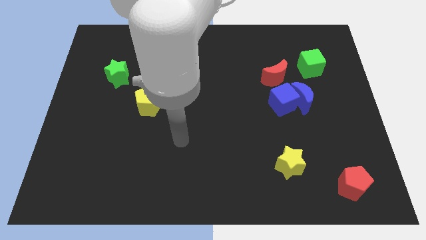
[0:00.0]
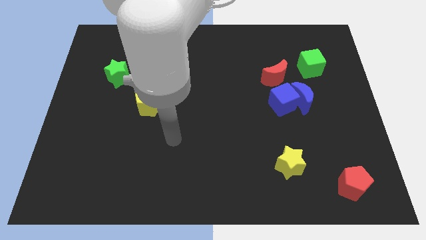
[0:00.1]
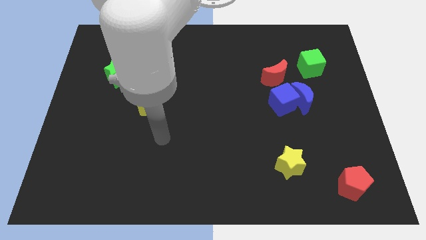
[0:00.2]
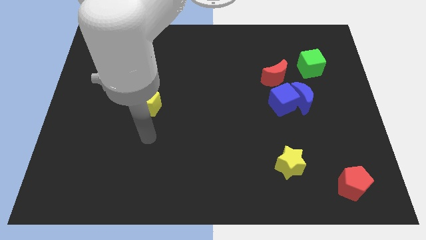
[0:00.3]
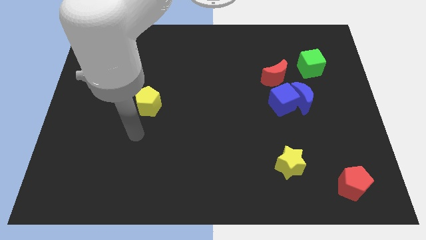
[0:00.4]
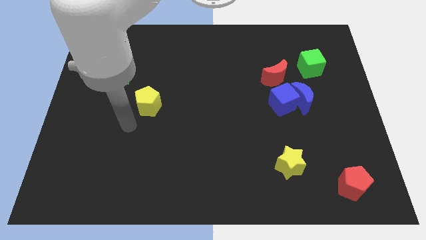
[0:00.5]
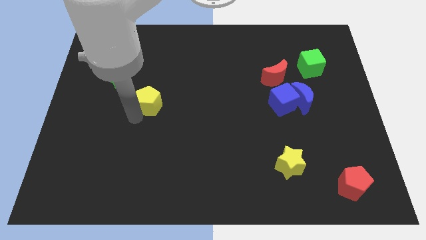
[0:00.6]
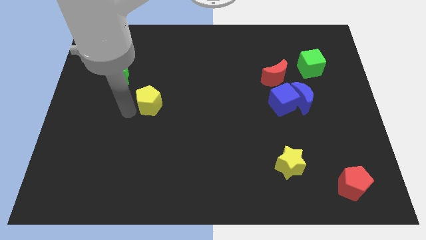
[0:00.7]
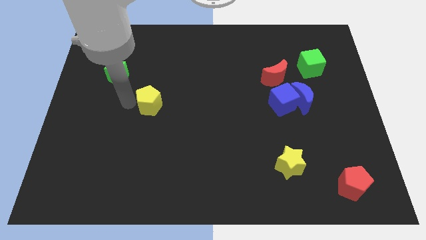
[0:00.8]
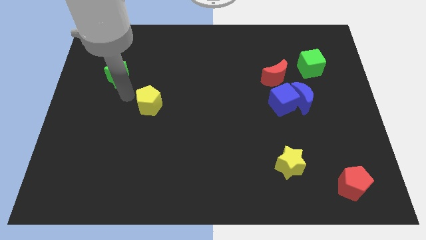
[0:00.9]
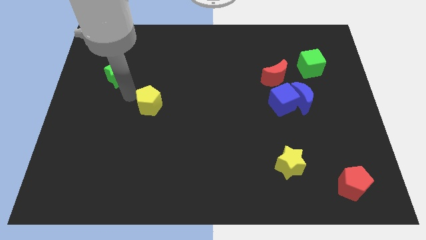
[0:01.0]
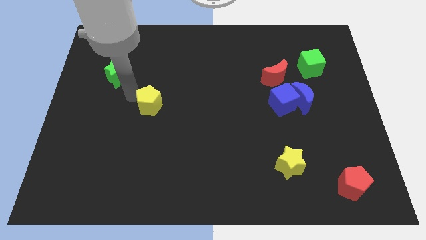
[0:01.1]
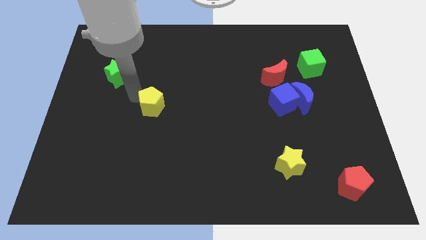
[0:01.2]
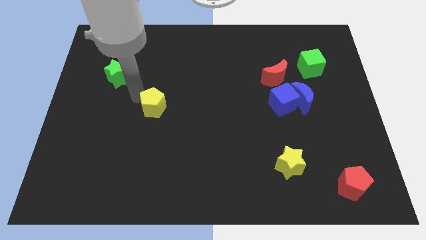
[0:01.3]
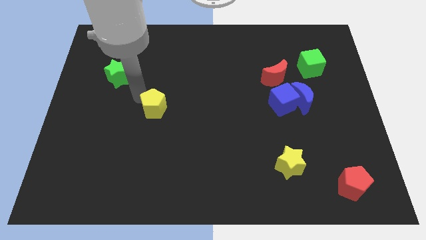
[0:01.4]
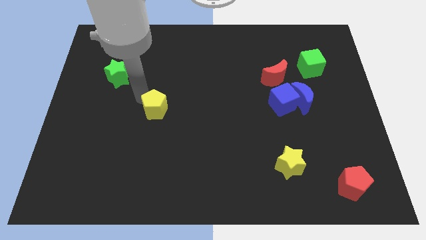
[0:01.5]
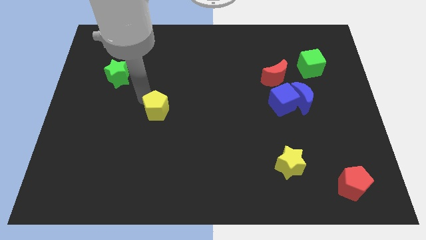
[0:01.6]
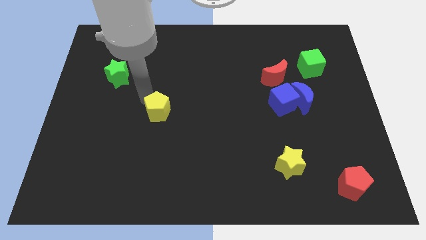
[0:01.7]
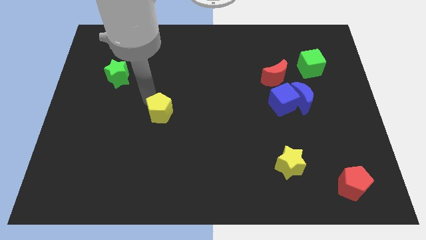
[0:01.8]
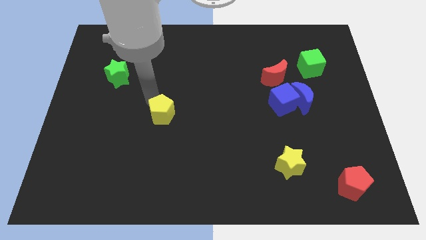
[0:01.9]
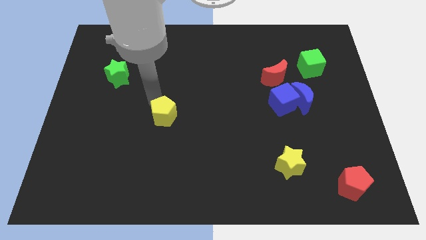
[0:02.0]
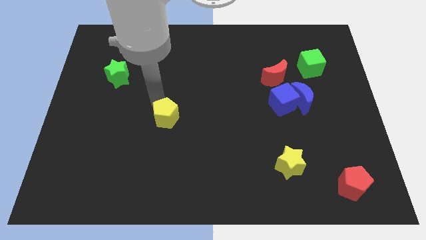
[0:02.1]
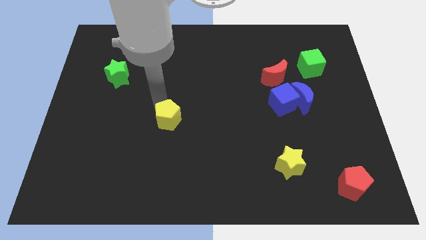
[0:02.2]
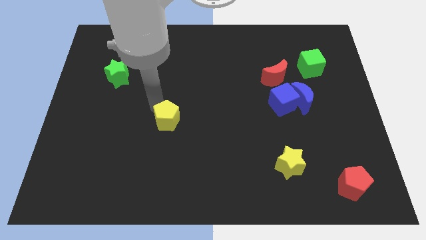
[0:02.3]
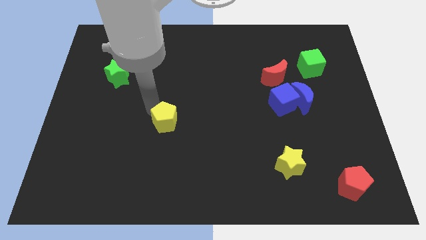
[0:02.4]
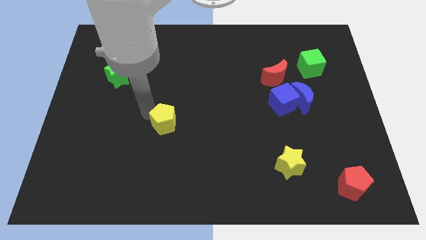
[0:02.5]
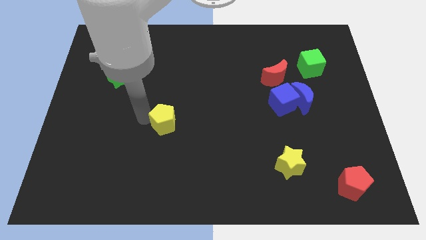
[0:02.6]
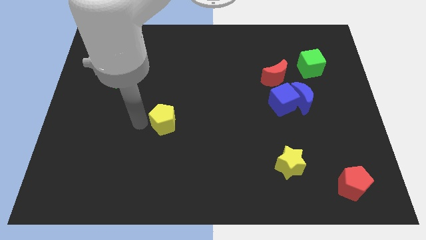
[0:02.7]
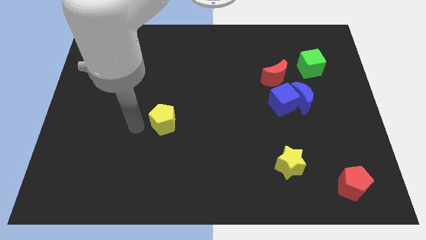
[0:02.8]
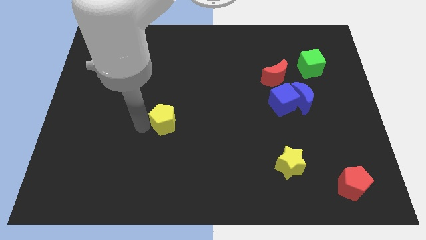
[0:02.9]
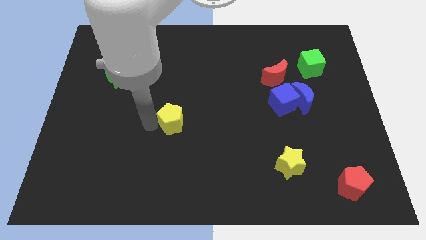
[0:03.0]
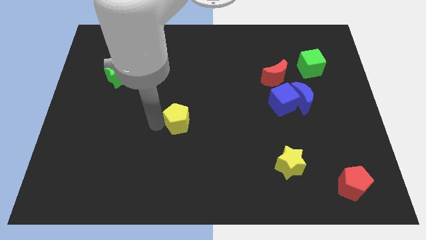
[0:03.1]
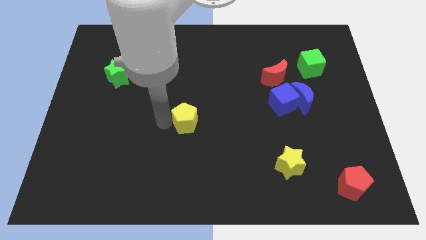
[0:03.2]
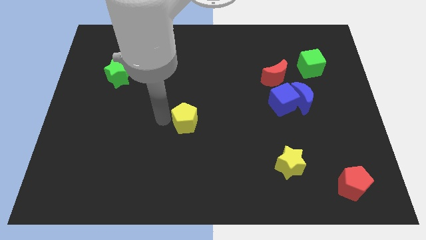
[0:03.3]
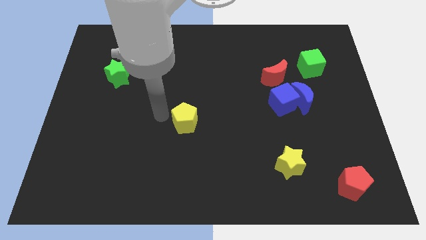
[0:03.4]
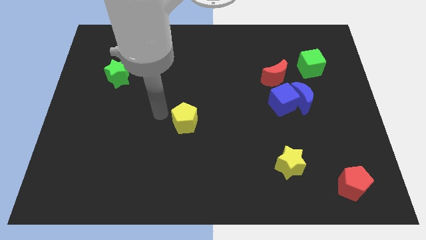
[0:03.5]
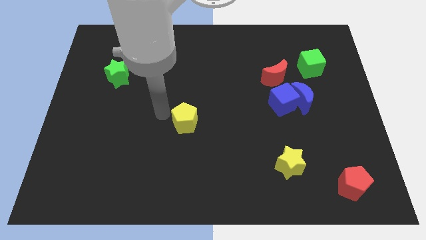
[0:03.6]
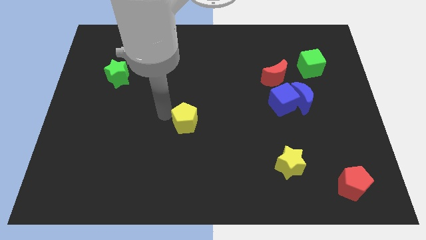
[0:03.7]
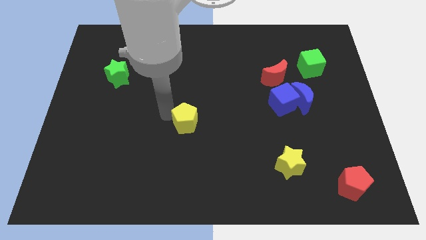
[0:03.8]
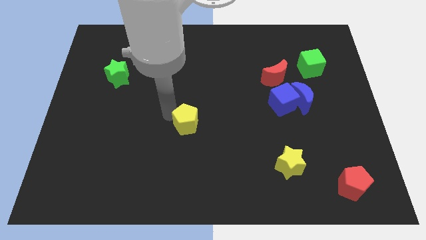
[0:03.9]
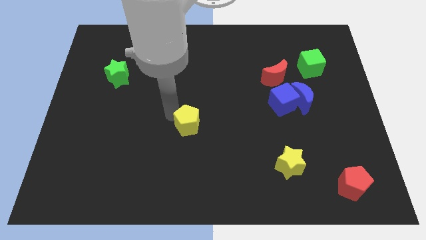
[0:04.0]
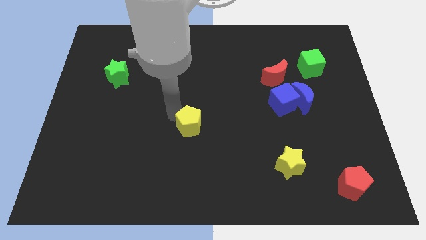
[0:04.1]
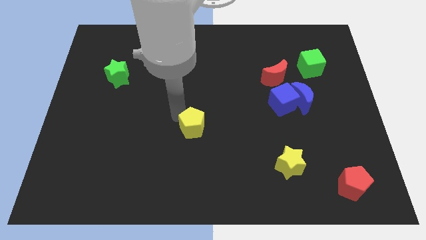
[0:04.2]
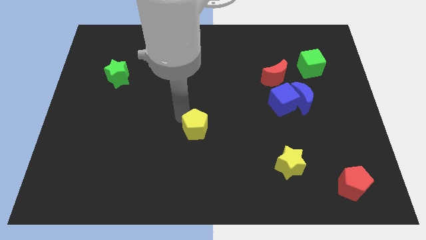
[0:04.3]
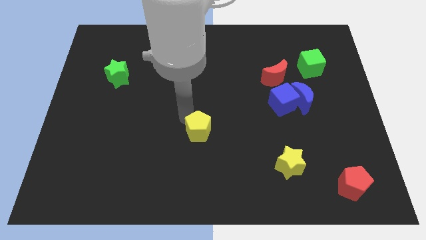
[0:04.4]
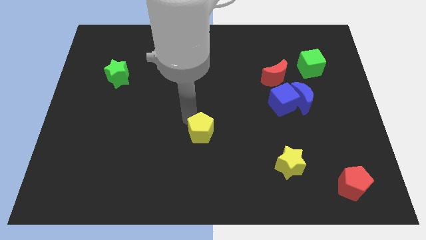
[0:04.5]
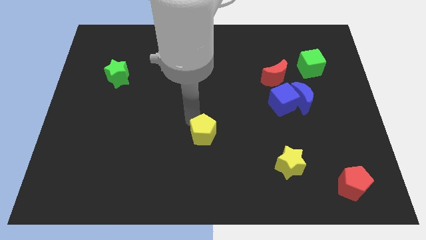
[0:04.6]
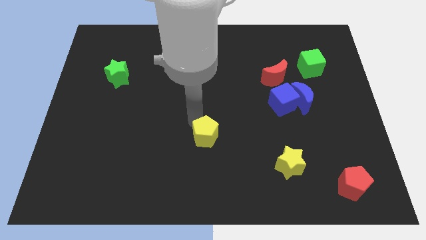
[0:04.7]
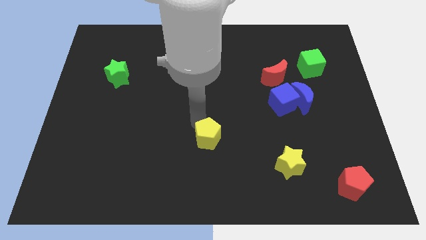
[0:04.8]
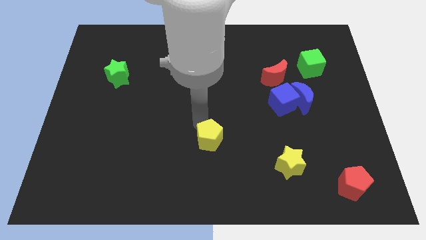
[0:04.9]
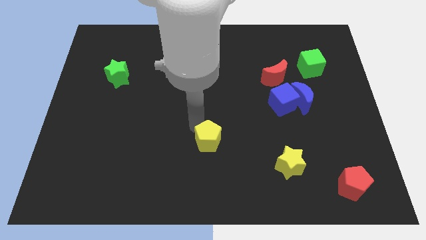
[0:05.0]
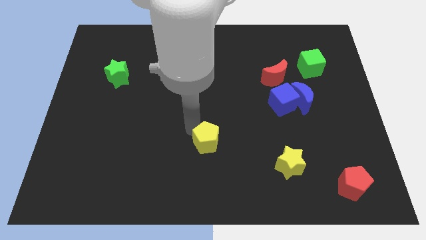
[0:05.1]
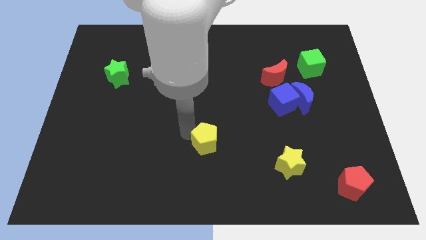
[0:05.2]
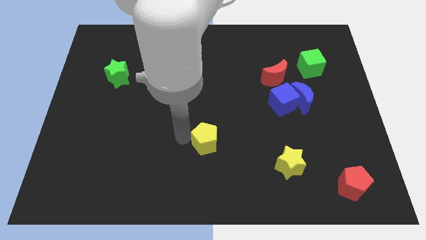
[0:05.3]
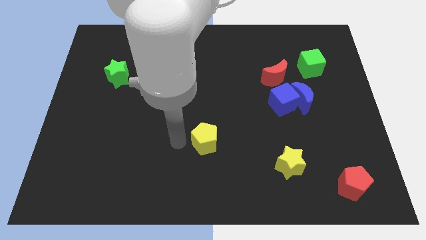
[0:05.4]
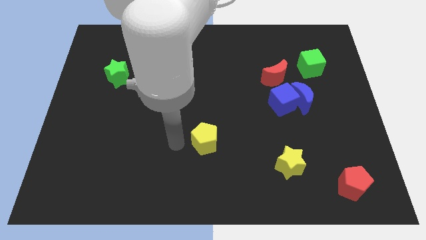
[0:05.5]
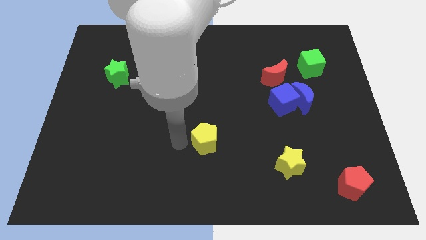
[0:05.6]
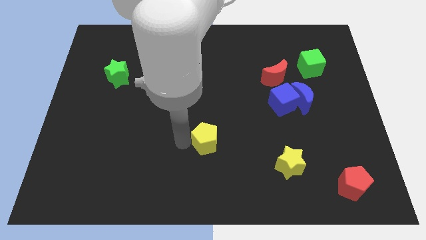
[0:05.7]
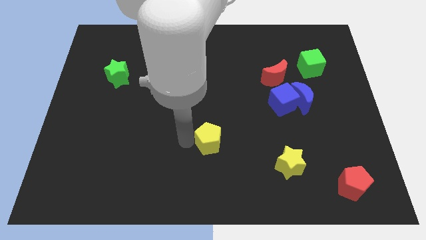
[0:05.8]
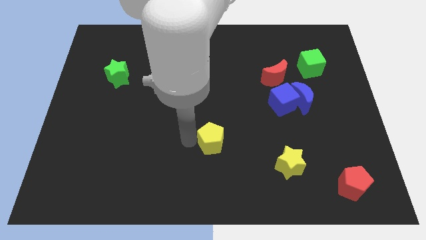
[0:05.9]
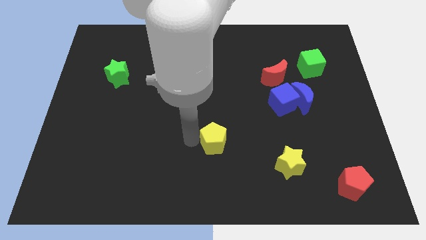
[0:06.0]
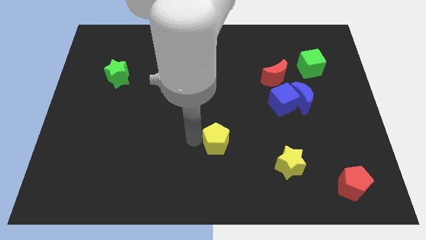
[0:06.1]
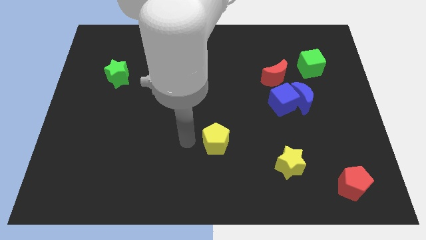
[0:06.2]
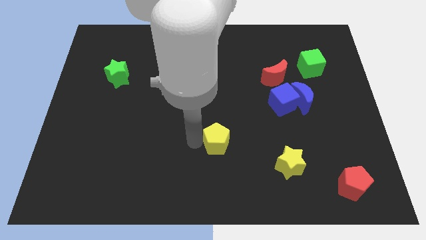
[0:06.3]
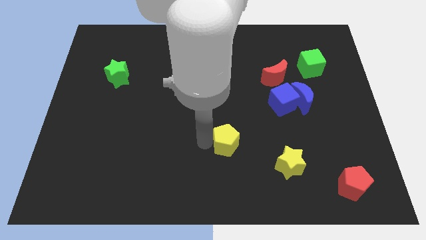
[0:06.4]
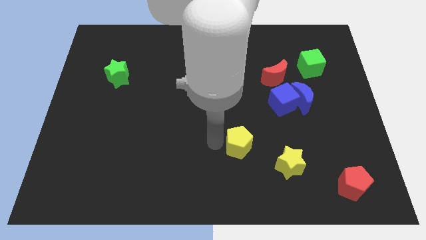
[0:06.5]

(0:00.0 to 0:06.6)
move the yellow pentagon to the top left side of the yellow star

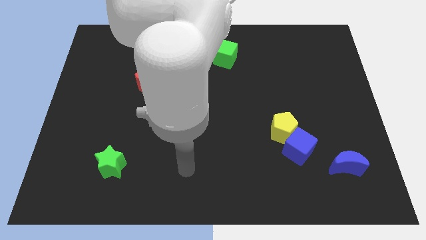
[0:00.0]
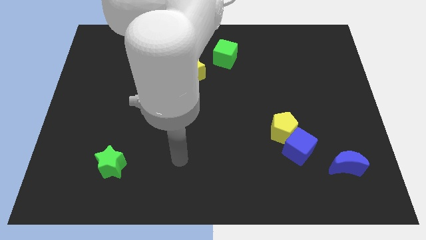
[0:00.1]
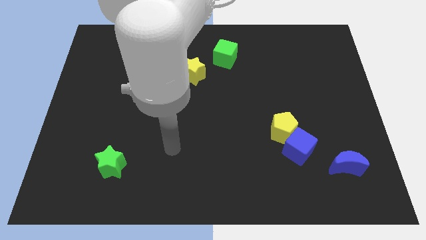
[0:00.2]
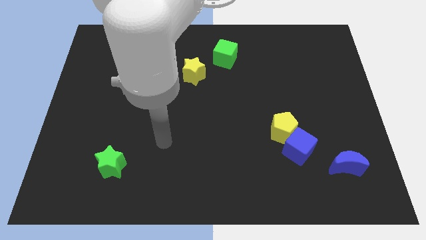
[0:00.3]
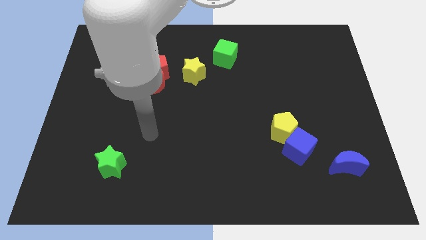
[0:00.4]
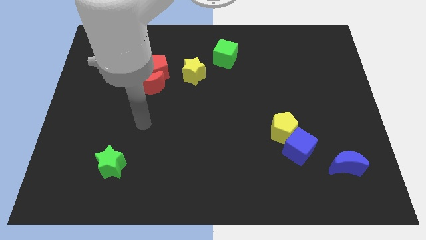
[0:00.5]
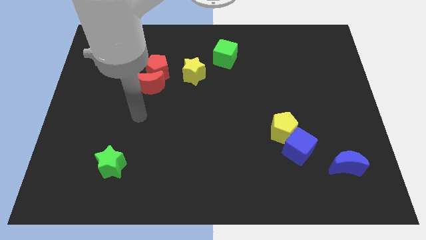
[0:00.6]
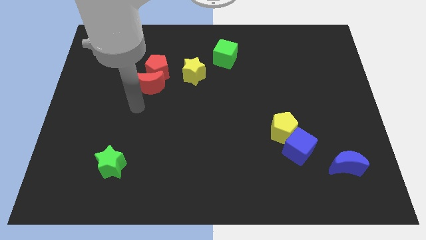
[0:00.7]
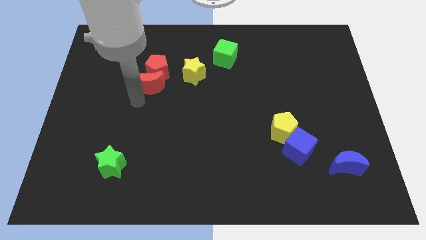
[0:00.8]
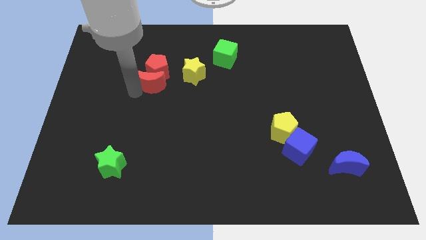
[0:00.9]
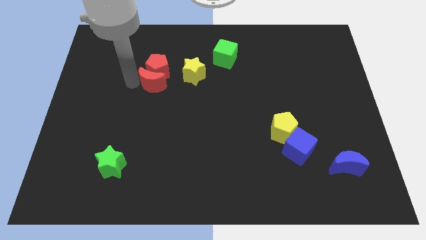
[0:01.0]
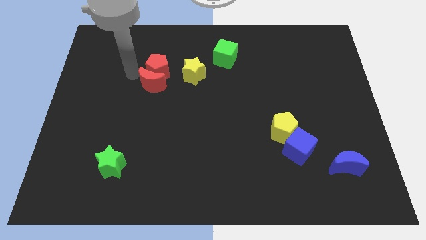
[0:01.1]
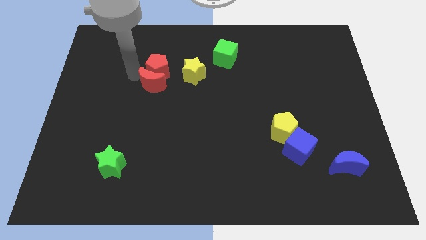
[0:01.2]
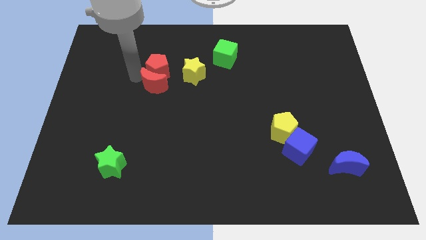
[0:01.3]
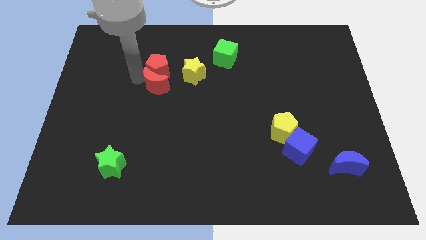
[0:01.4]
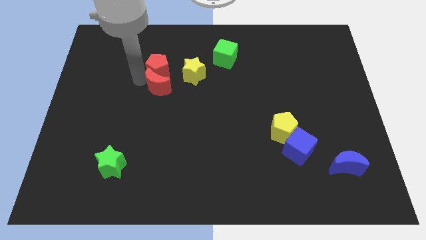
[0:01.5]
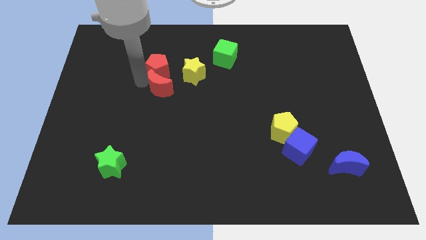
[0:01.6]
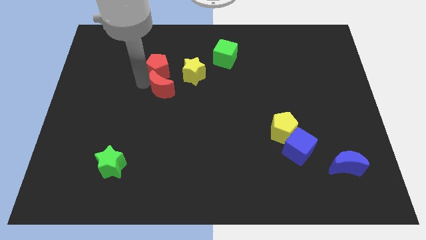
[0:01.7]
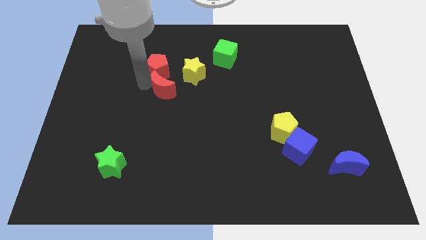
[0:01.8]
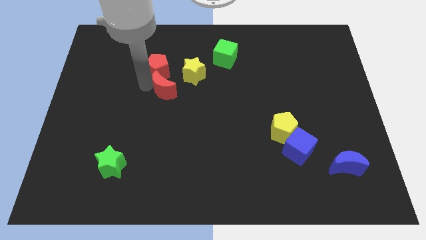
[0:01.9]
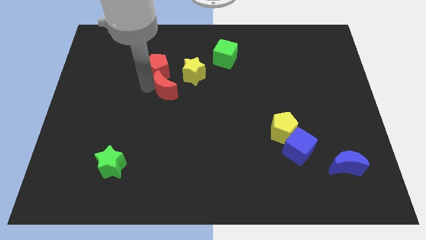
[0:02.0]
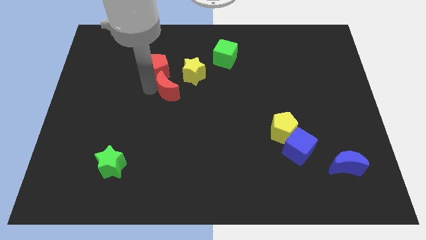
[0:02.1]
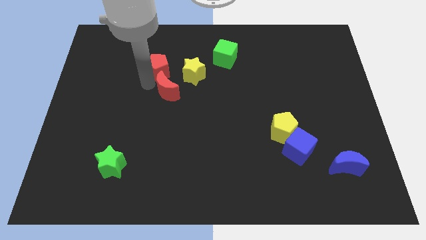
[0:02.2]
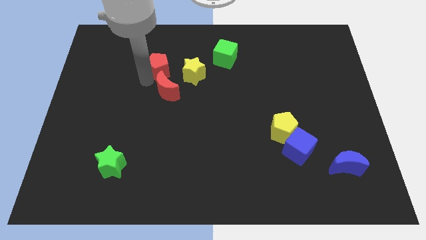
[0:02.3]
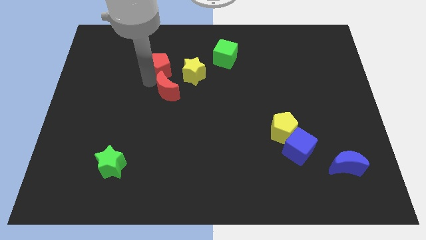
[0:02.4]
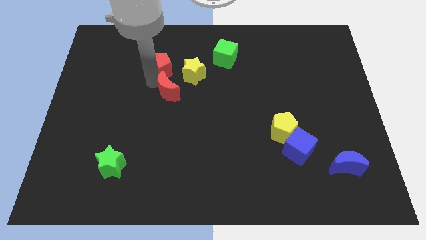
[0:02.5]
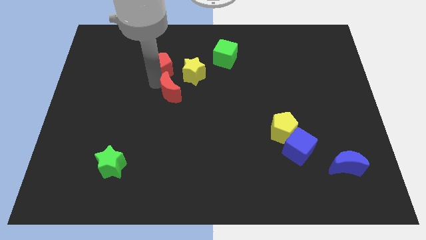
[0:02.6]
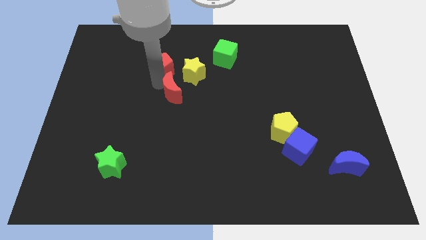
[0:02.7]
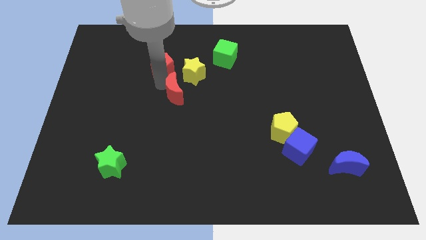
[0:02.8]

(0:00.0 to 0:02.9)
push the red moon below the yellow star
